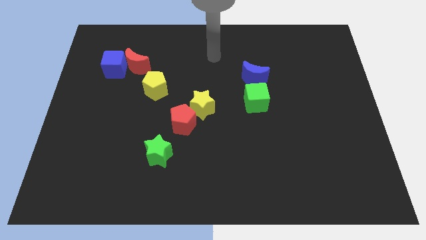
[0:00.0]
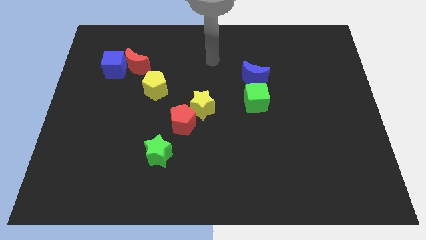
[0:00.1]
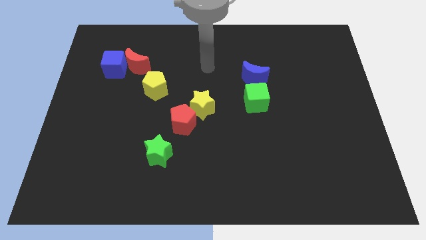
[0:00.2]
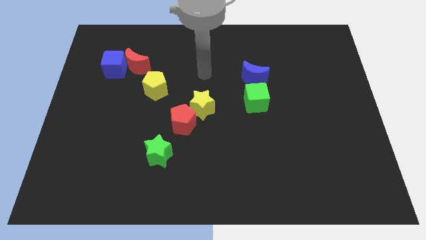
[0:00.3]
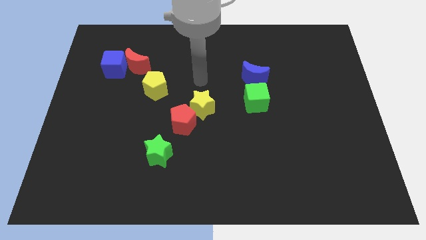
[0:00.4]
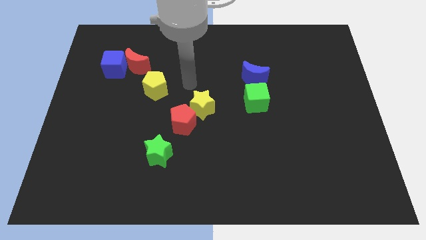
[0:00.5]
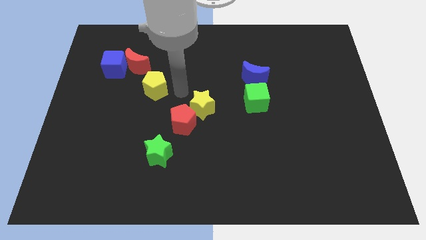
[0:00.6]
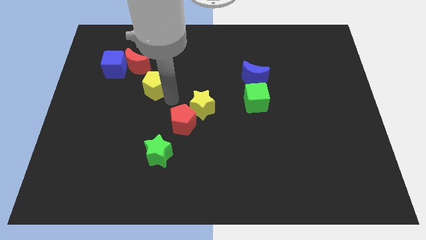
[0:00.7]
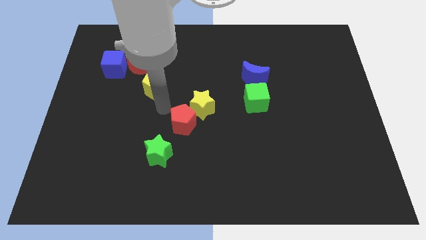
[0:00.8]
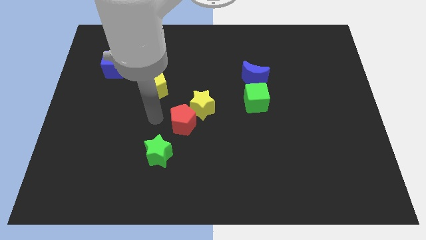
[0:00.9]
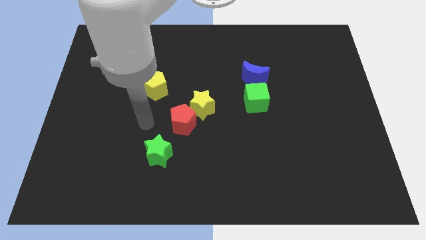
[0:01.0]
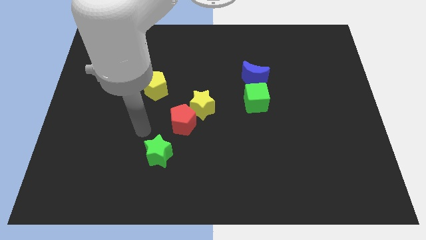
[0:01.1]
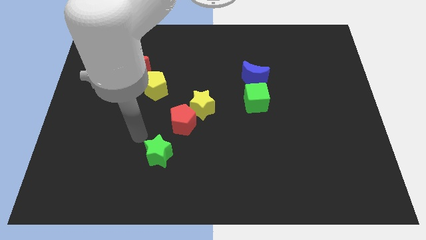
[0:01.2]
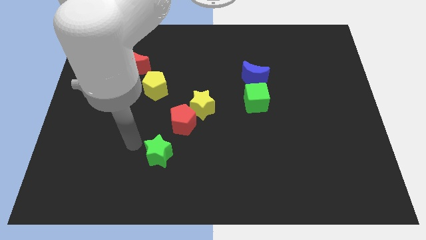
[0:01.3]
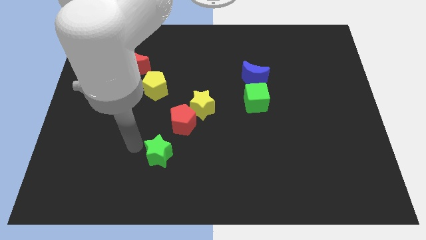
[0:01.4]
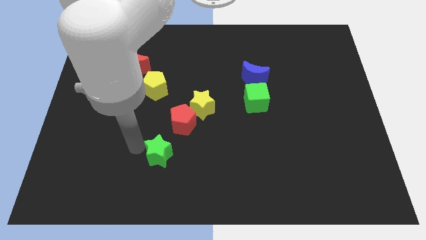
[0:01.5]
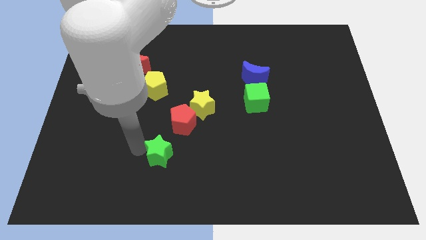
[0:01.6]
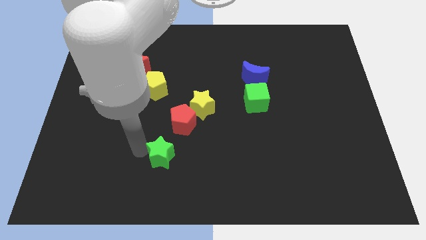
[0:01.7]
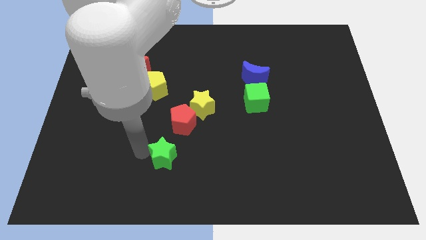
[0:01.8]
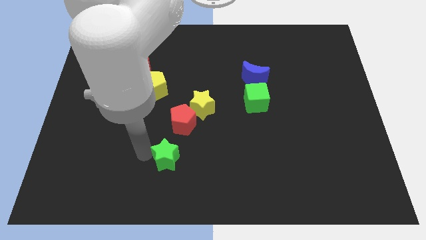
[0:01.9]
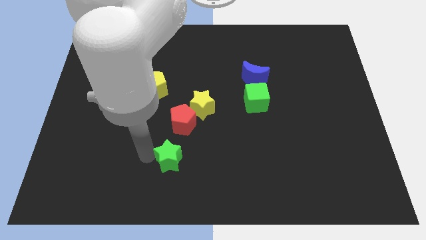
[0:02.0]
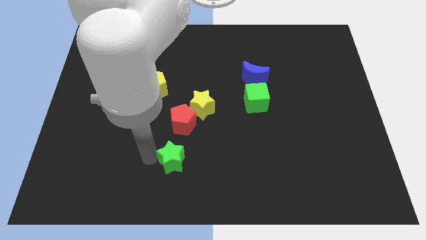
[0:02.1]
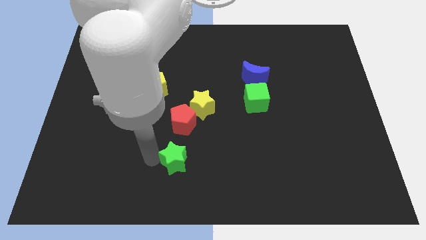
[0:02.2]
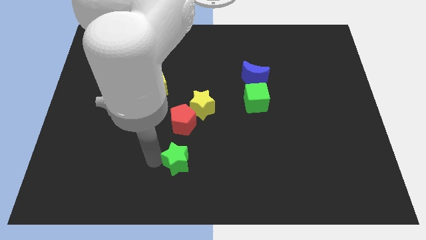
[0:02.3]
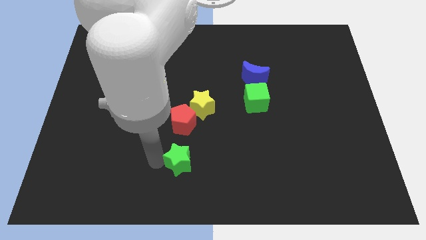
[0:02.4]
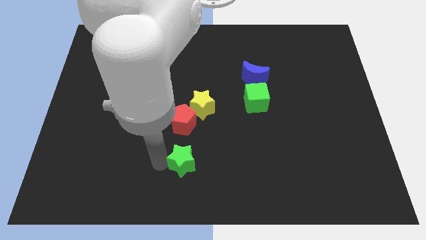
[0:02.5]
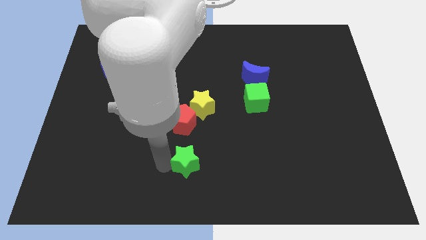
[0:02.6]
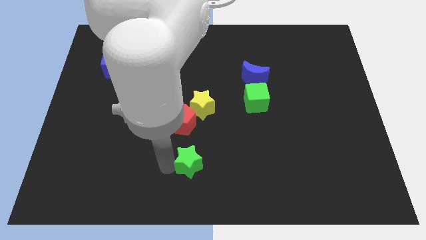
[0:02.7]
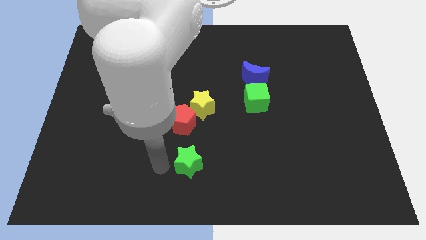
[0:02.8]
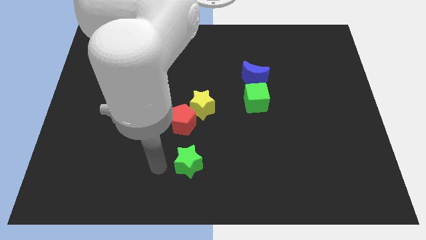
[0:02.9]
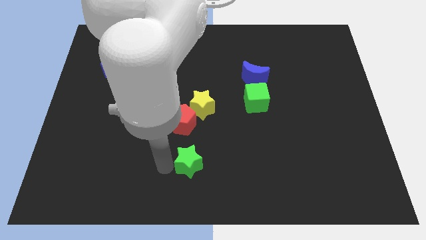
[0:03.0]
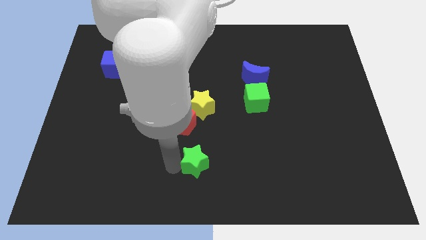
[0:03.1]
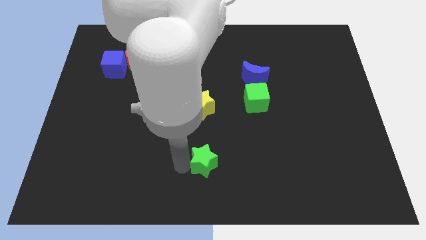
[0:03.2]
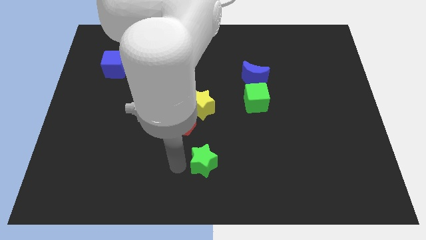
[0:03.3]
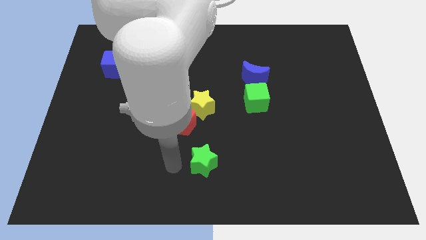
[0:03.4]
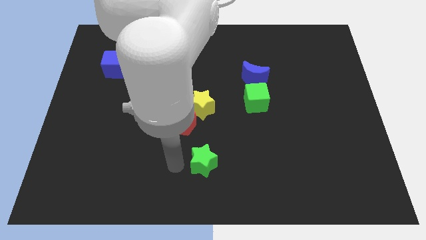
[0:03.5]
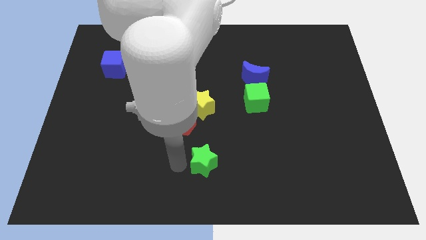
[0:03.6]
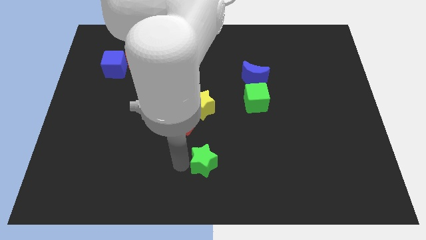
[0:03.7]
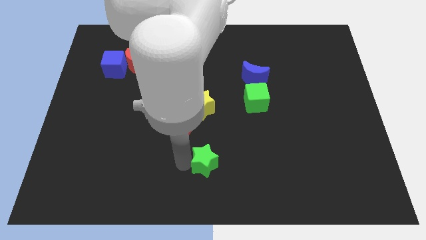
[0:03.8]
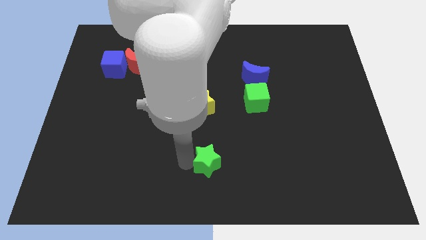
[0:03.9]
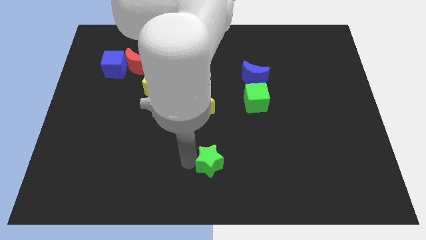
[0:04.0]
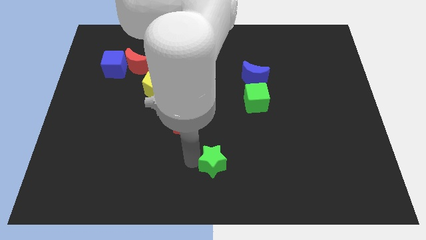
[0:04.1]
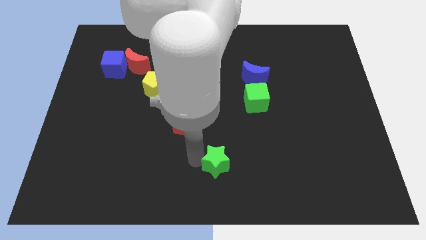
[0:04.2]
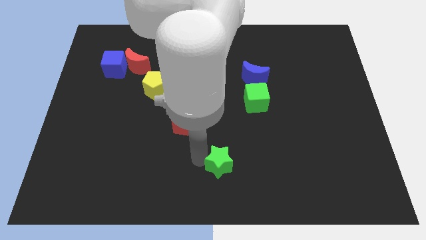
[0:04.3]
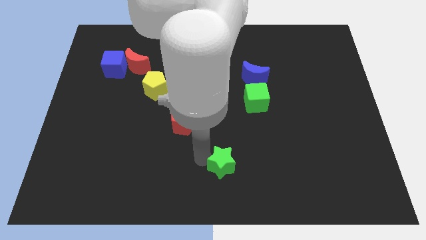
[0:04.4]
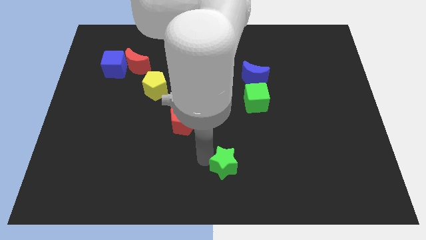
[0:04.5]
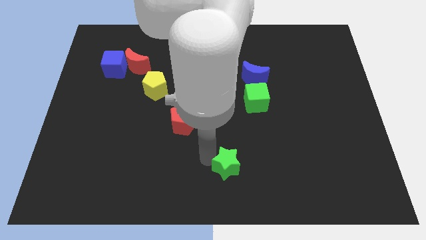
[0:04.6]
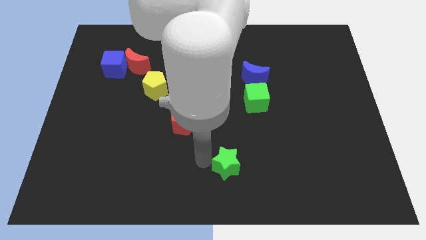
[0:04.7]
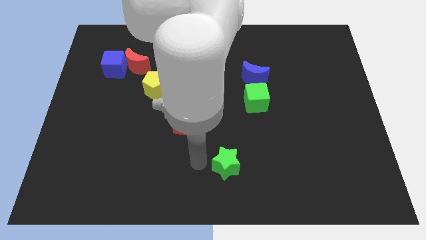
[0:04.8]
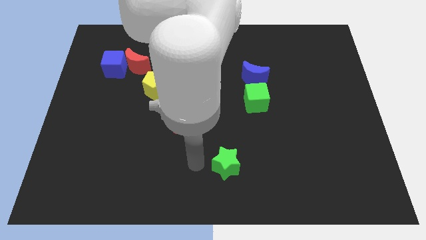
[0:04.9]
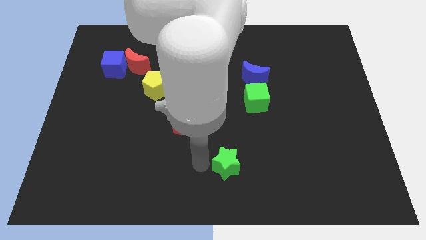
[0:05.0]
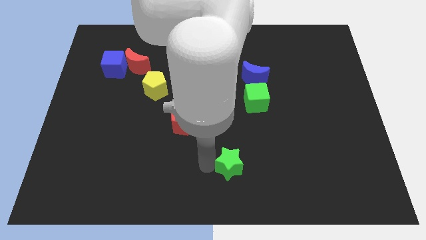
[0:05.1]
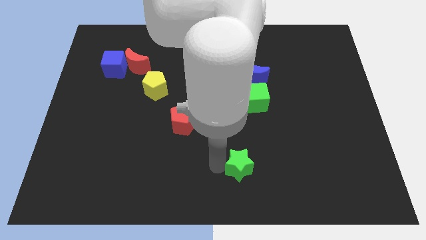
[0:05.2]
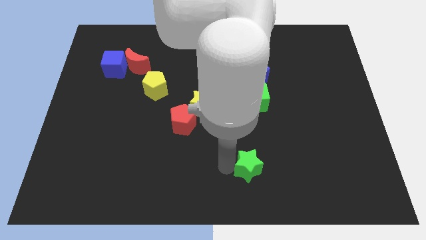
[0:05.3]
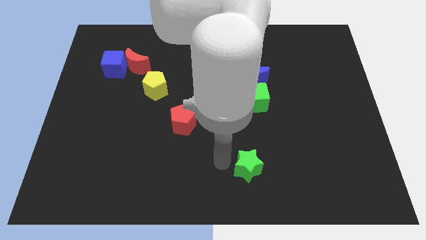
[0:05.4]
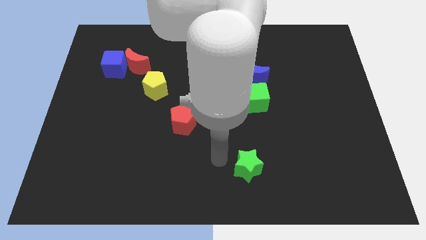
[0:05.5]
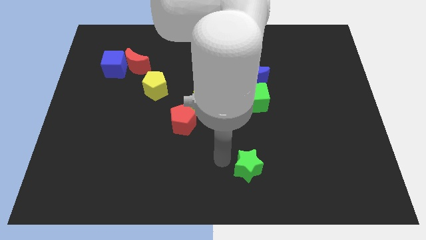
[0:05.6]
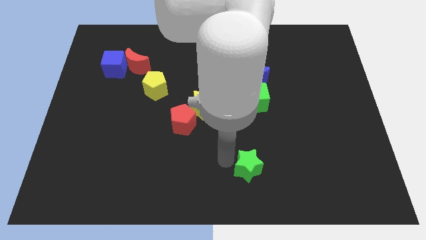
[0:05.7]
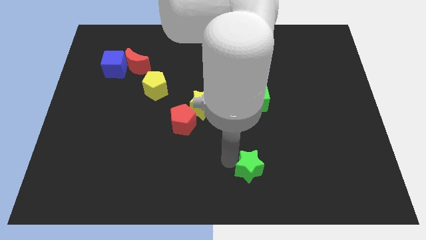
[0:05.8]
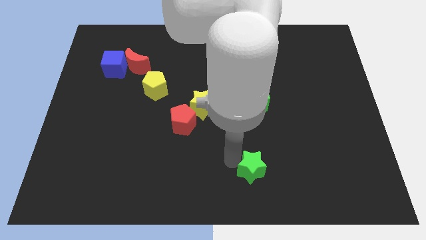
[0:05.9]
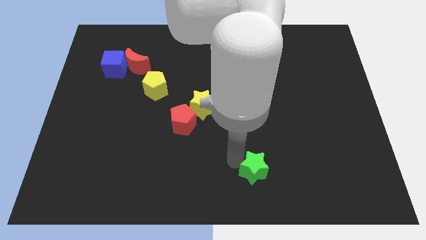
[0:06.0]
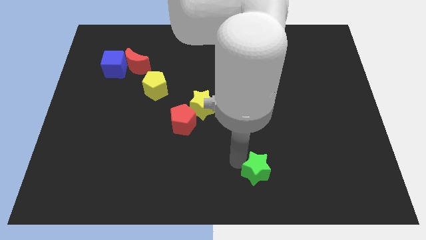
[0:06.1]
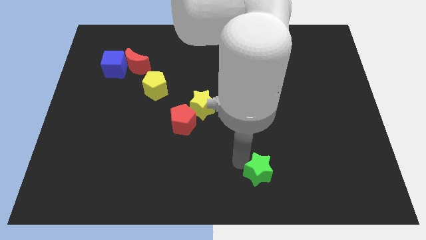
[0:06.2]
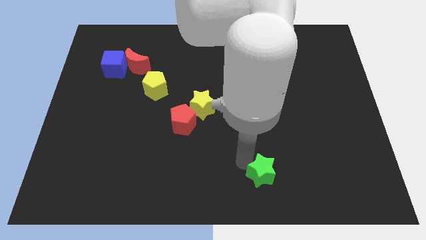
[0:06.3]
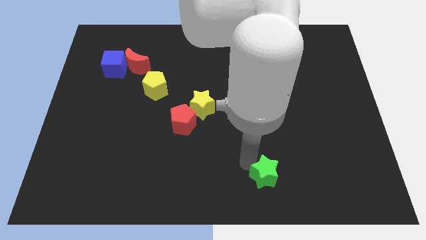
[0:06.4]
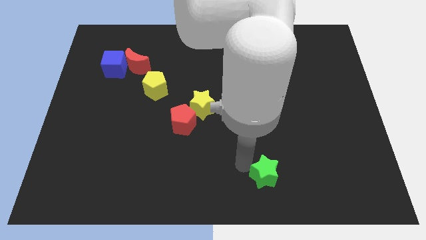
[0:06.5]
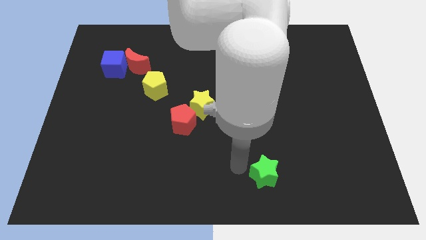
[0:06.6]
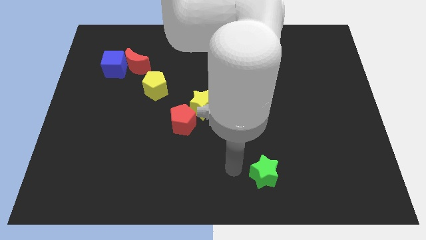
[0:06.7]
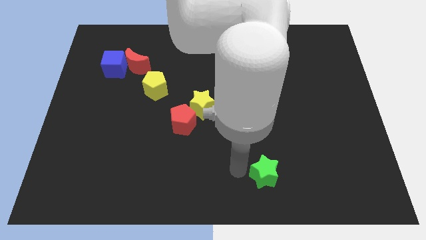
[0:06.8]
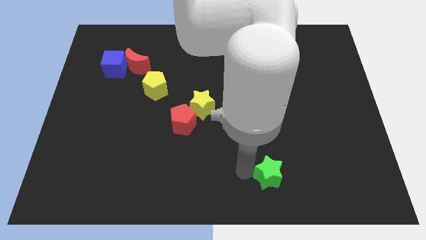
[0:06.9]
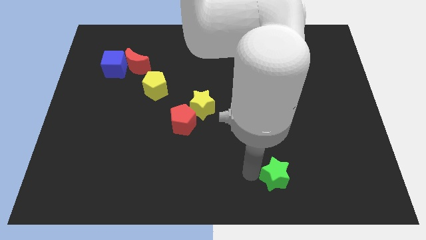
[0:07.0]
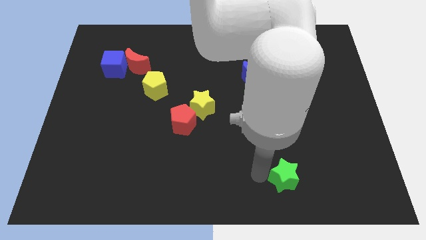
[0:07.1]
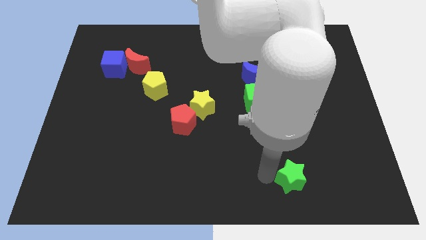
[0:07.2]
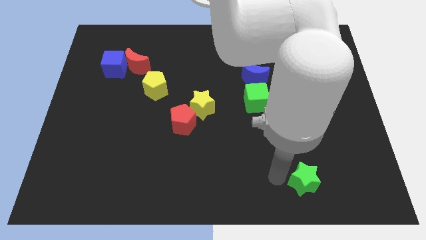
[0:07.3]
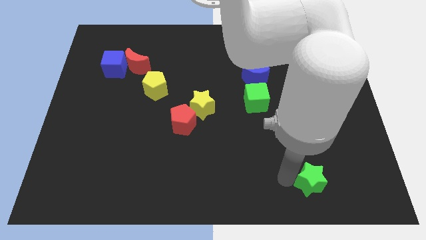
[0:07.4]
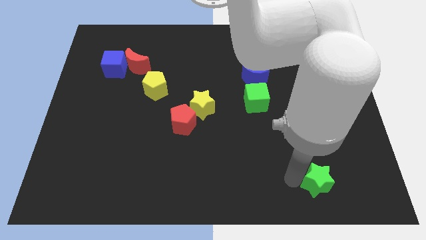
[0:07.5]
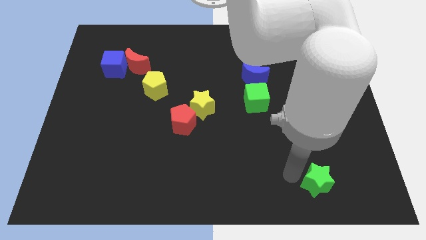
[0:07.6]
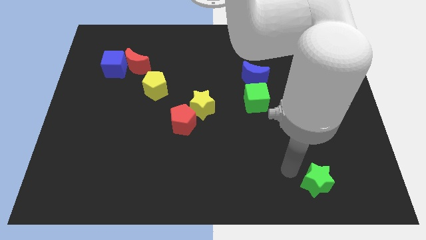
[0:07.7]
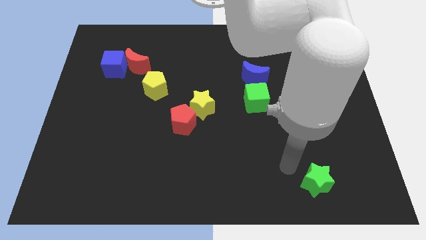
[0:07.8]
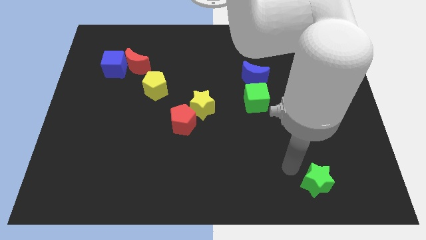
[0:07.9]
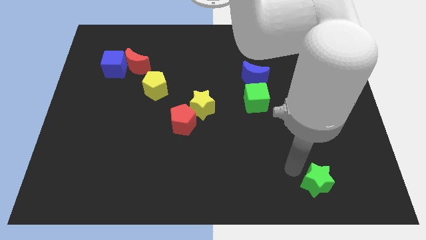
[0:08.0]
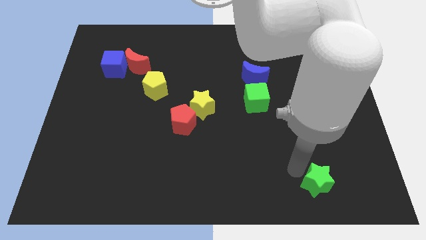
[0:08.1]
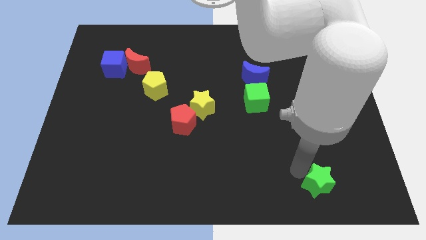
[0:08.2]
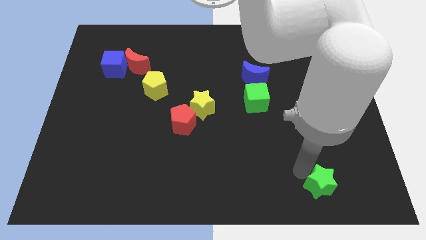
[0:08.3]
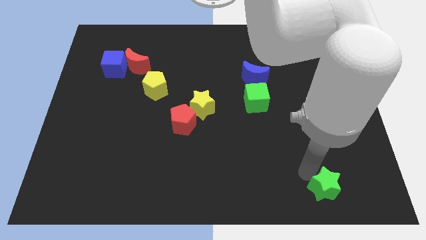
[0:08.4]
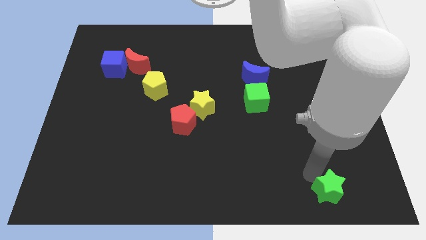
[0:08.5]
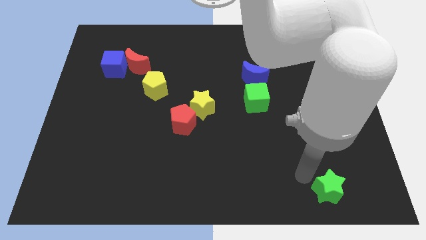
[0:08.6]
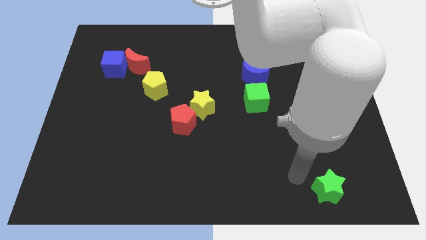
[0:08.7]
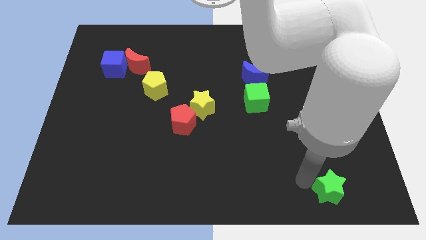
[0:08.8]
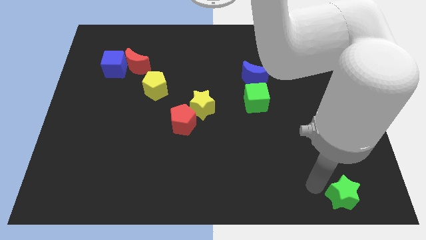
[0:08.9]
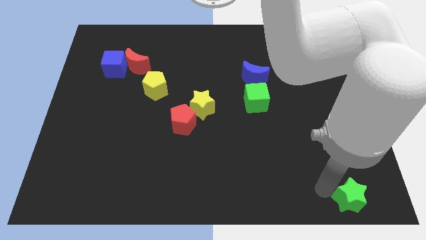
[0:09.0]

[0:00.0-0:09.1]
move the green star to the bottom right
